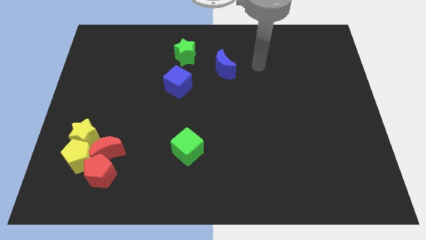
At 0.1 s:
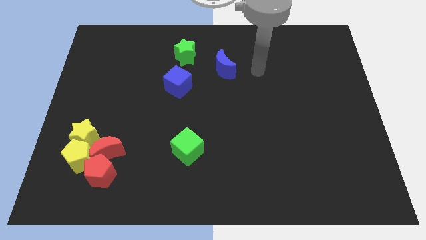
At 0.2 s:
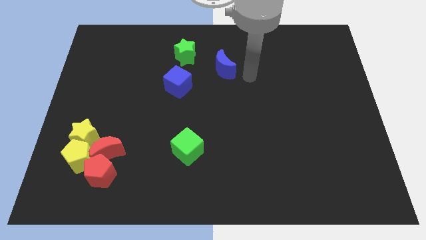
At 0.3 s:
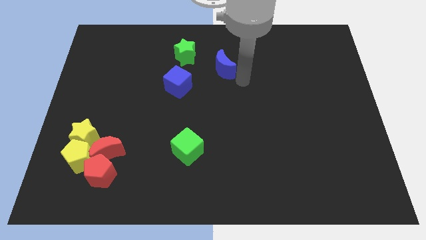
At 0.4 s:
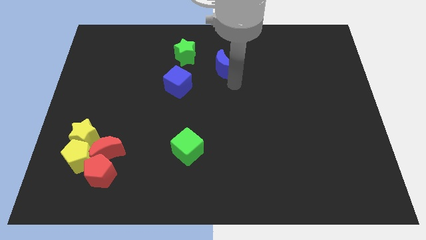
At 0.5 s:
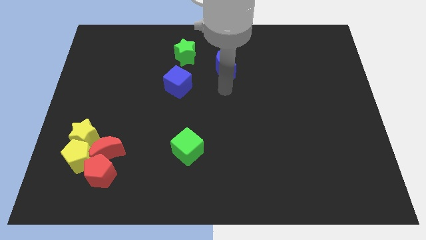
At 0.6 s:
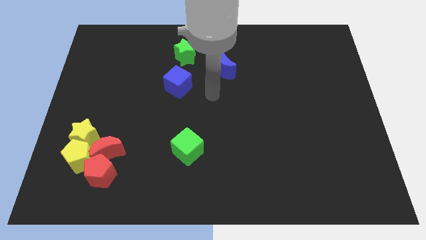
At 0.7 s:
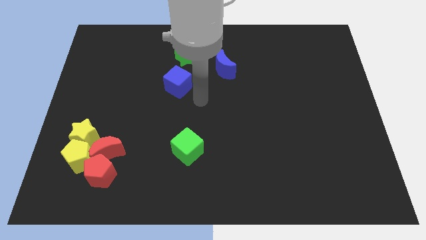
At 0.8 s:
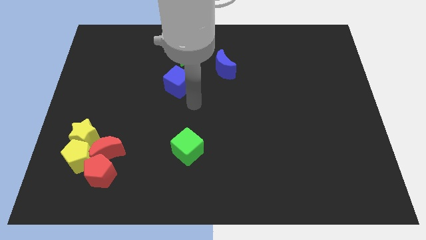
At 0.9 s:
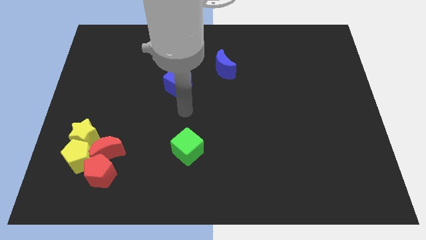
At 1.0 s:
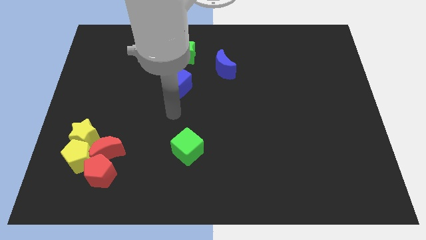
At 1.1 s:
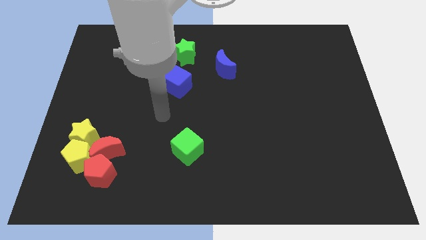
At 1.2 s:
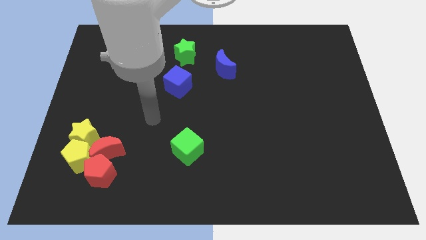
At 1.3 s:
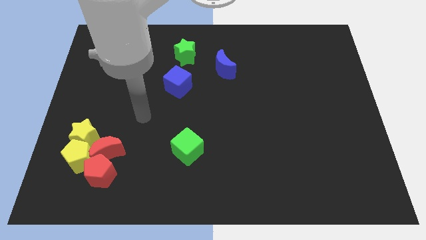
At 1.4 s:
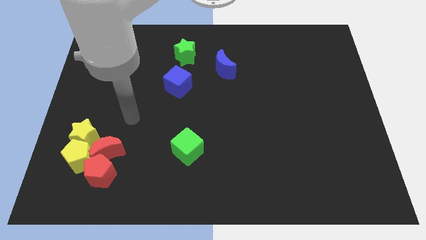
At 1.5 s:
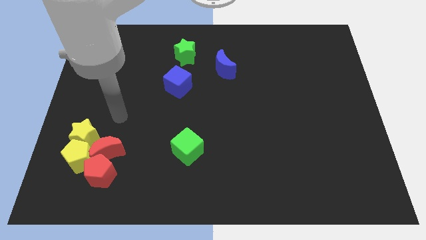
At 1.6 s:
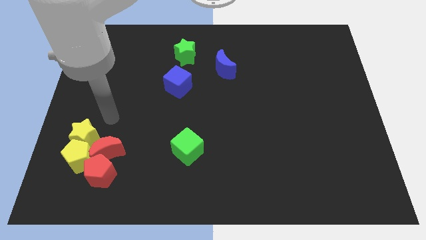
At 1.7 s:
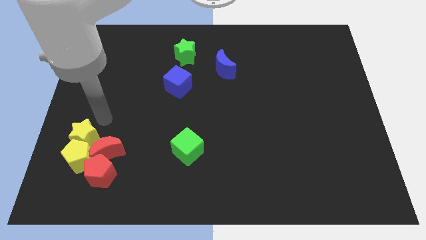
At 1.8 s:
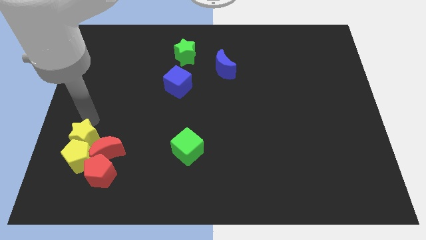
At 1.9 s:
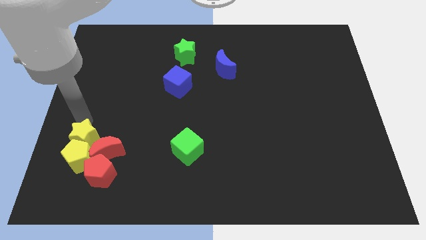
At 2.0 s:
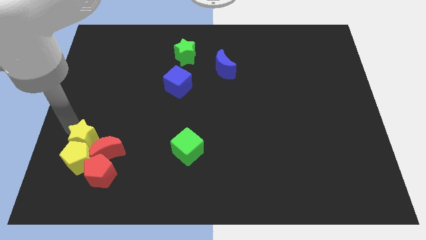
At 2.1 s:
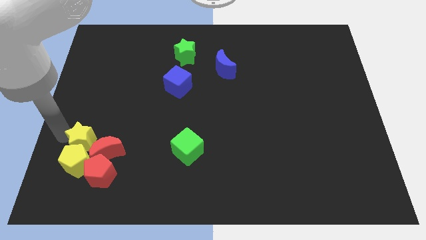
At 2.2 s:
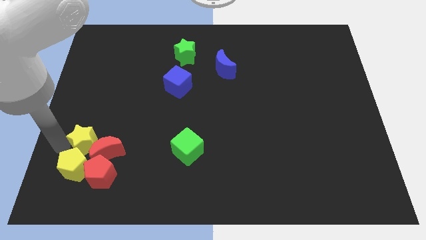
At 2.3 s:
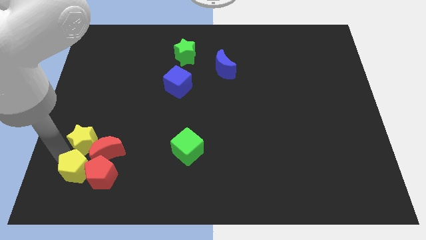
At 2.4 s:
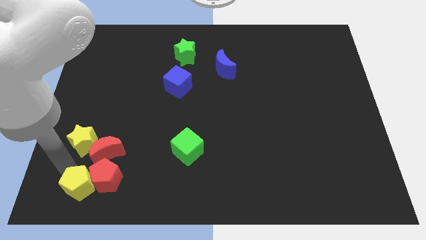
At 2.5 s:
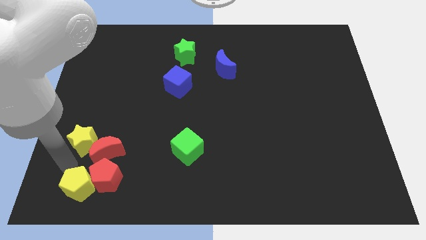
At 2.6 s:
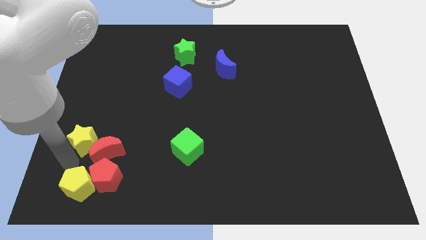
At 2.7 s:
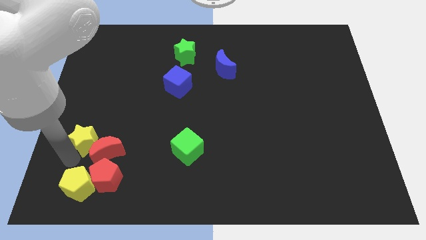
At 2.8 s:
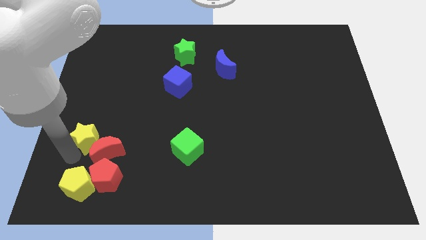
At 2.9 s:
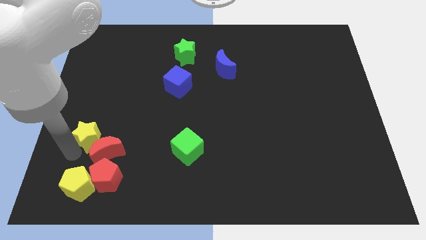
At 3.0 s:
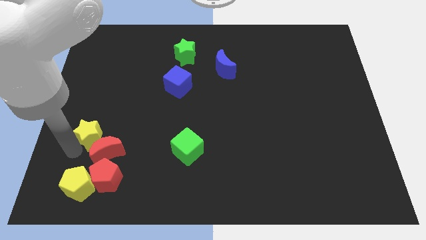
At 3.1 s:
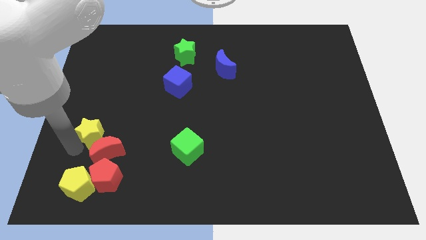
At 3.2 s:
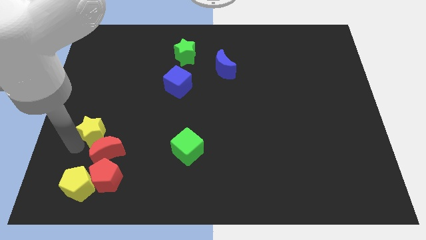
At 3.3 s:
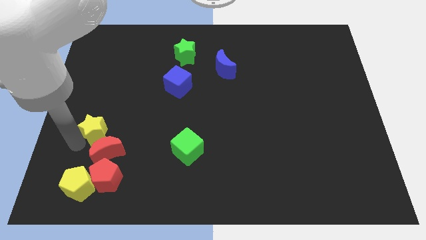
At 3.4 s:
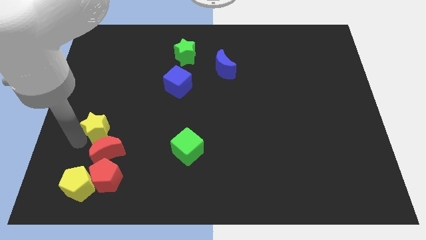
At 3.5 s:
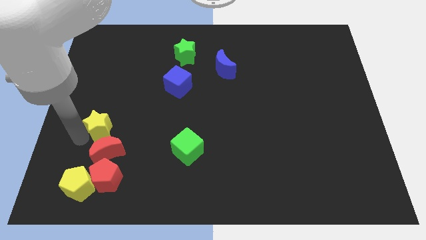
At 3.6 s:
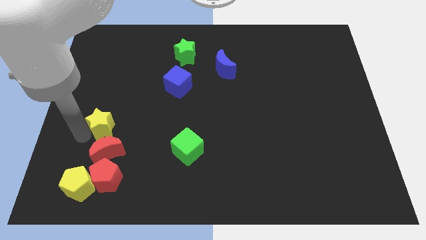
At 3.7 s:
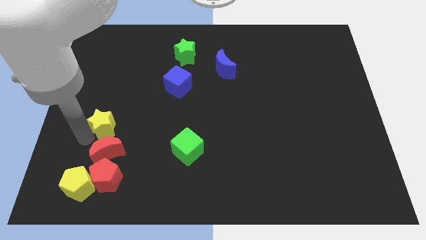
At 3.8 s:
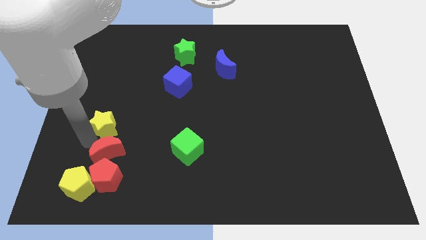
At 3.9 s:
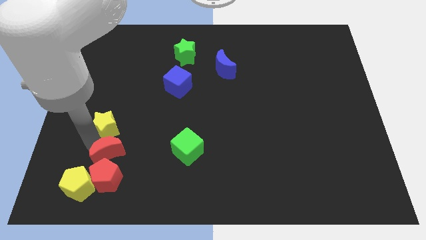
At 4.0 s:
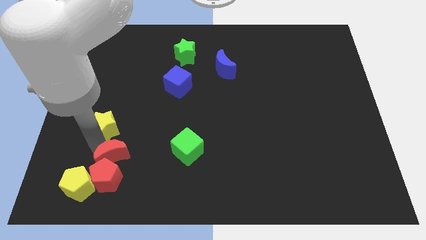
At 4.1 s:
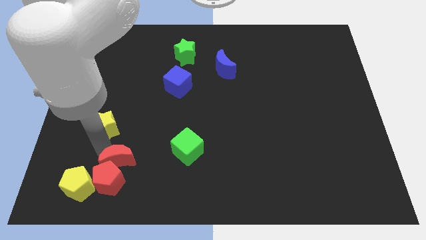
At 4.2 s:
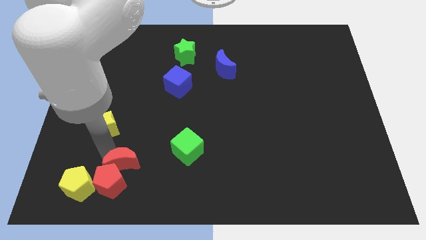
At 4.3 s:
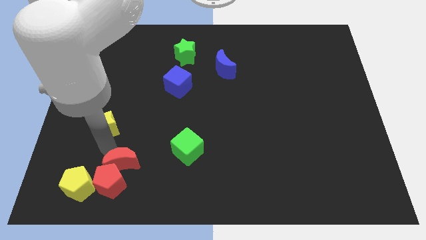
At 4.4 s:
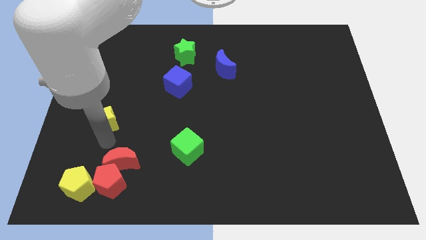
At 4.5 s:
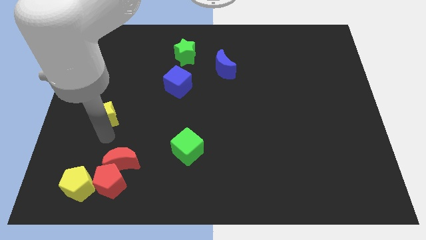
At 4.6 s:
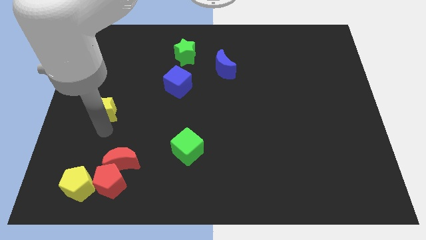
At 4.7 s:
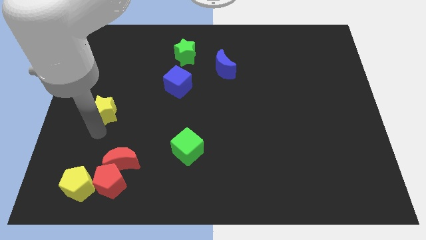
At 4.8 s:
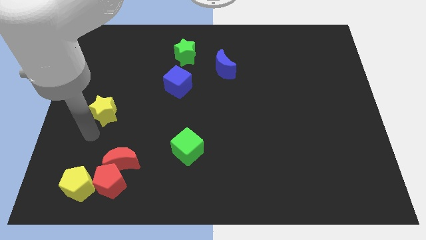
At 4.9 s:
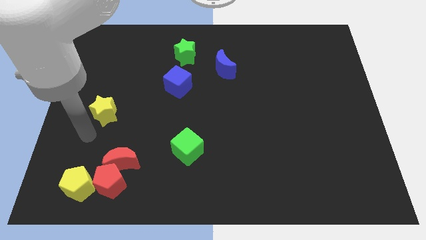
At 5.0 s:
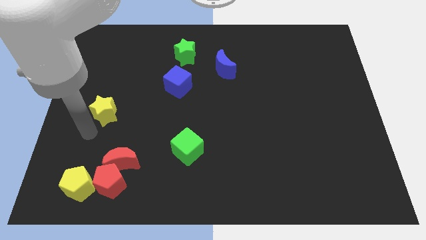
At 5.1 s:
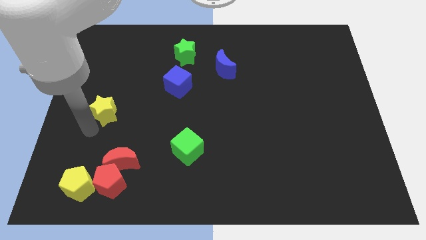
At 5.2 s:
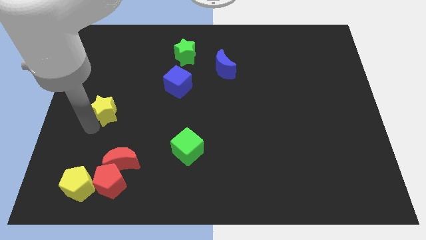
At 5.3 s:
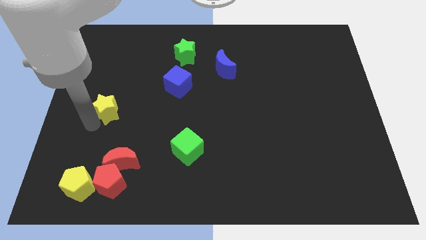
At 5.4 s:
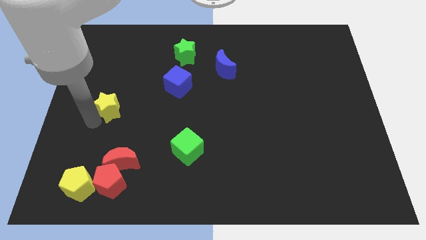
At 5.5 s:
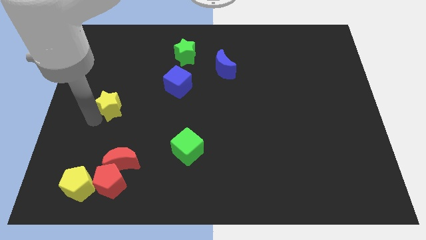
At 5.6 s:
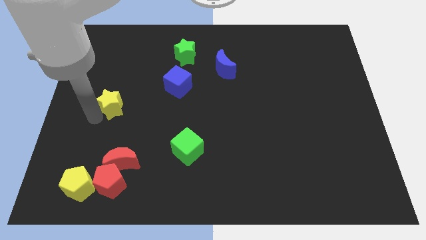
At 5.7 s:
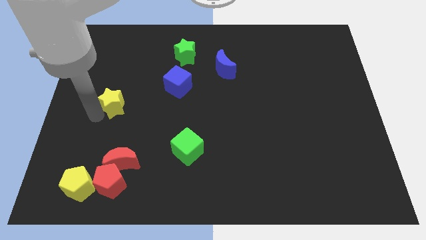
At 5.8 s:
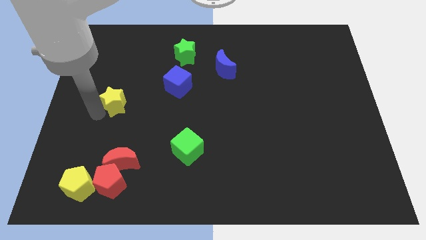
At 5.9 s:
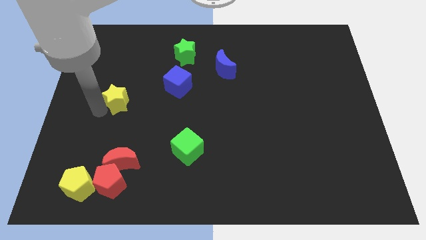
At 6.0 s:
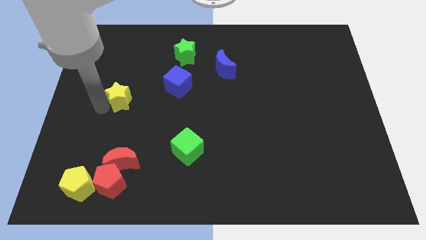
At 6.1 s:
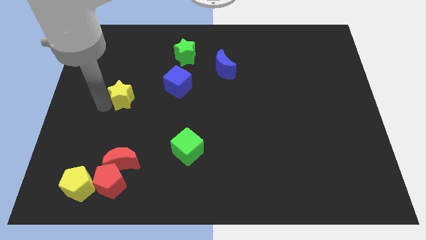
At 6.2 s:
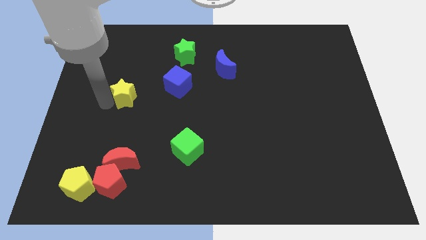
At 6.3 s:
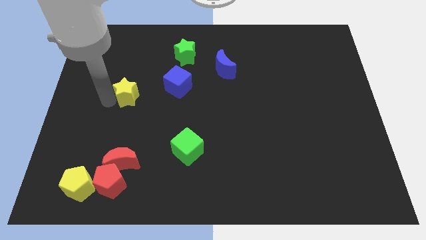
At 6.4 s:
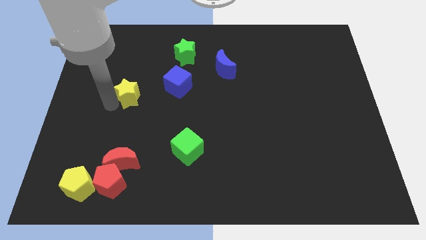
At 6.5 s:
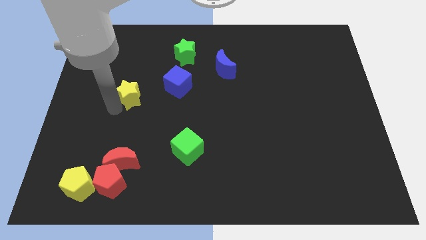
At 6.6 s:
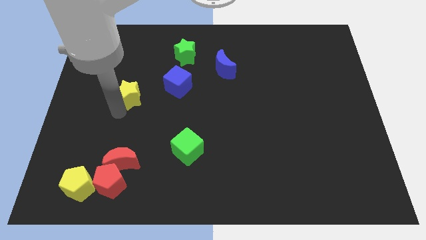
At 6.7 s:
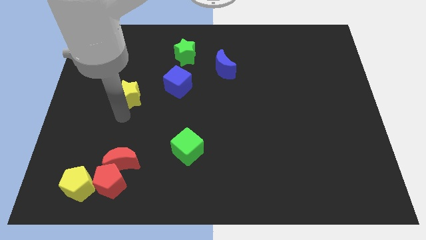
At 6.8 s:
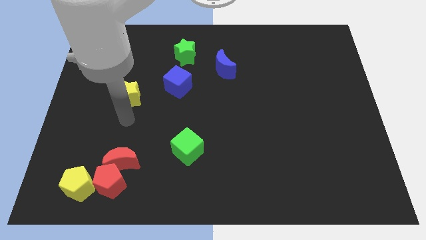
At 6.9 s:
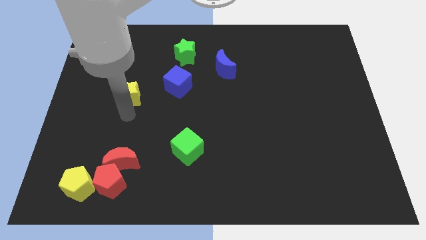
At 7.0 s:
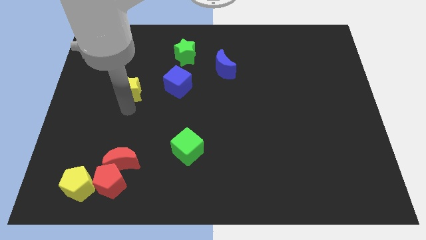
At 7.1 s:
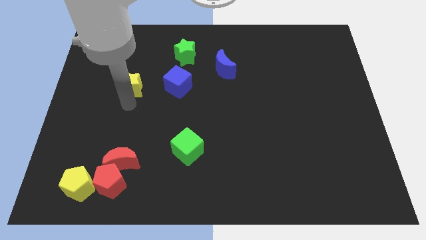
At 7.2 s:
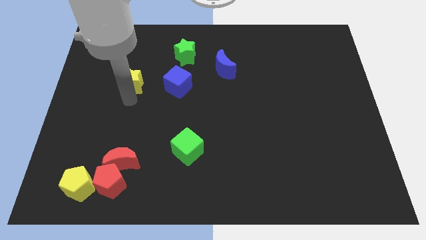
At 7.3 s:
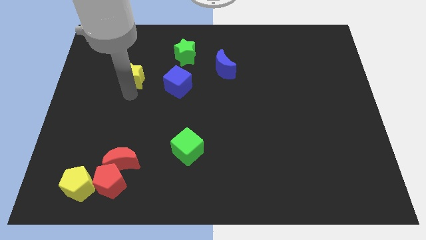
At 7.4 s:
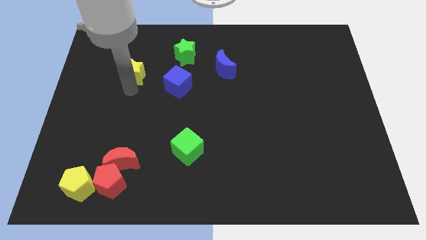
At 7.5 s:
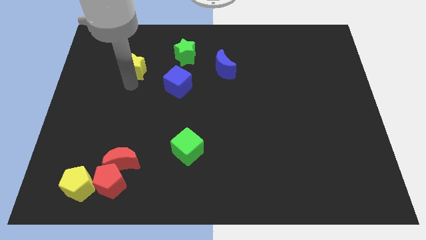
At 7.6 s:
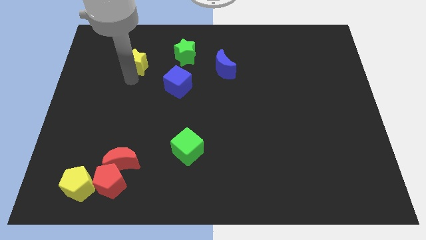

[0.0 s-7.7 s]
push the yellow star to the left of the green star
